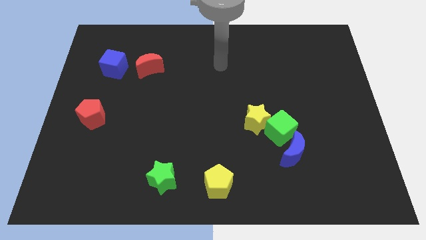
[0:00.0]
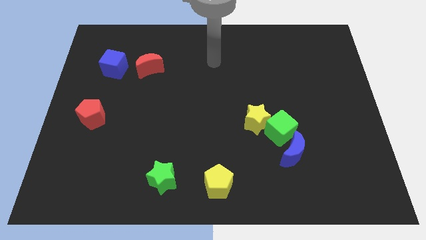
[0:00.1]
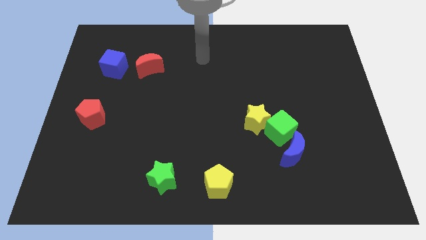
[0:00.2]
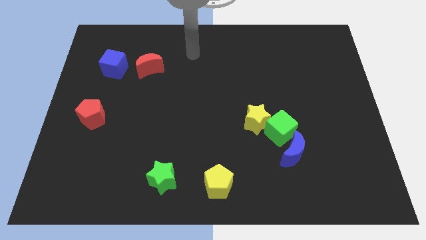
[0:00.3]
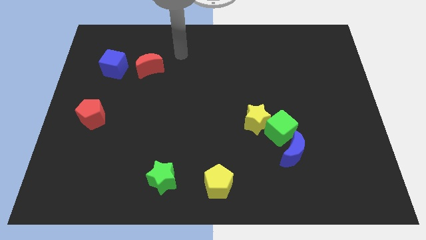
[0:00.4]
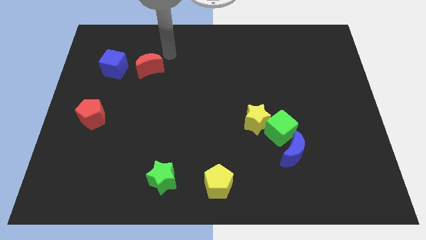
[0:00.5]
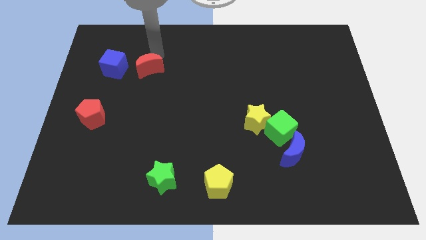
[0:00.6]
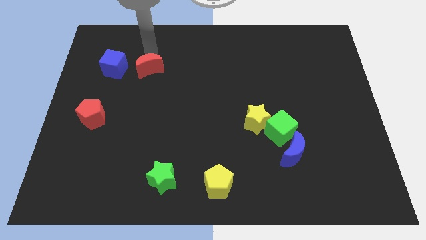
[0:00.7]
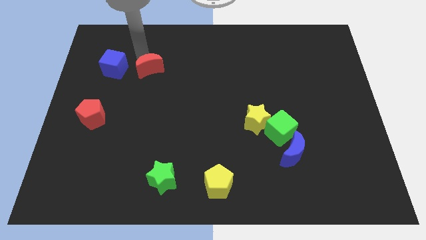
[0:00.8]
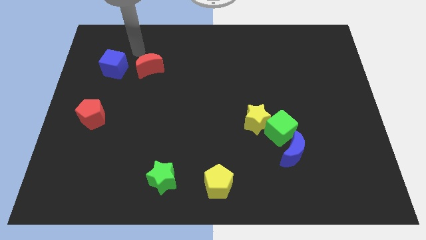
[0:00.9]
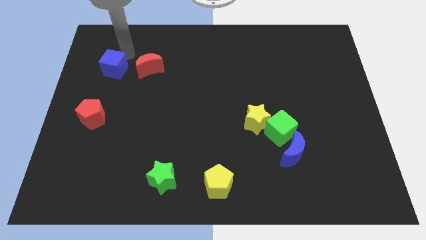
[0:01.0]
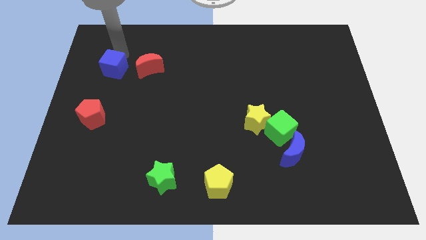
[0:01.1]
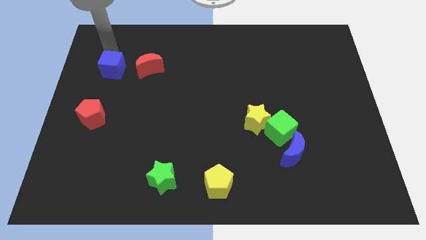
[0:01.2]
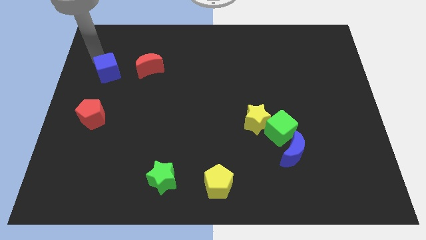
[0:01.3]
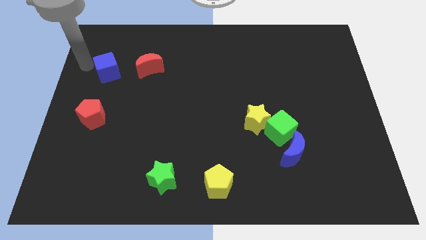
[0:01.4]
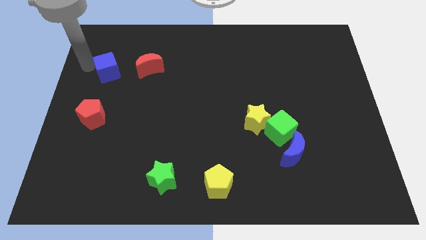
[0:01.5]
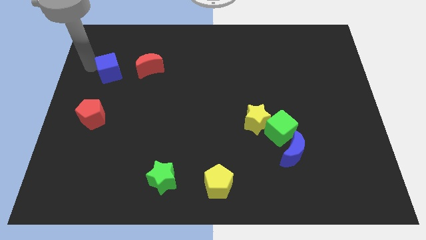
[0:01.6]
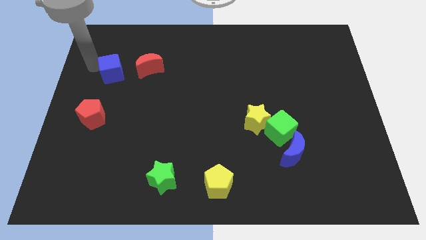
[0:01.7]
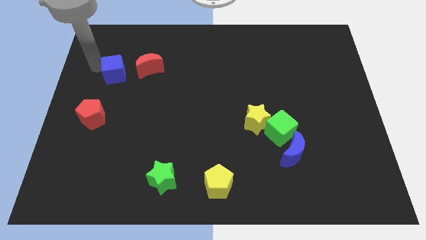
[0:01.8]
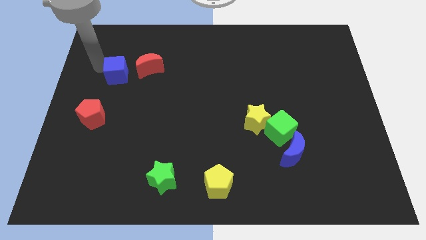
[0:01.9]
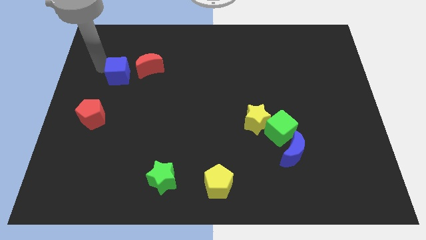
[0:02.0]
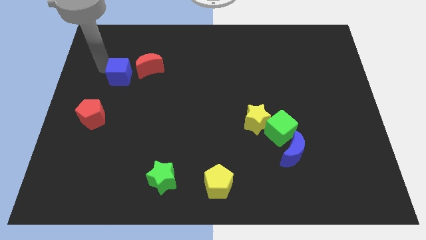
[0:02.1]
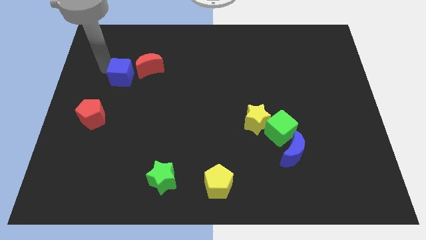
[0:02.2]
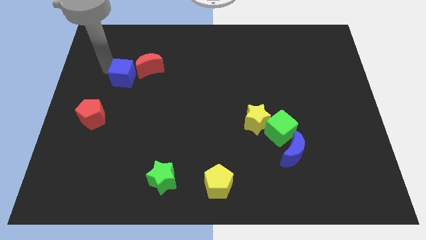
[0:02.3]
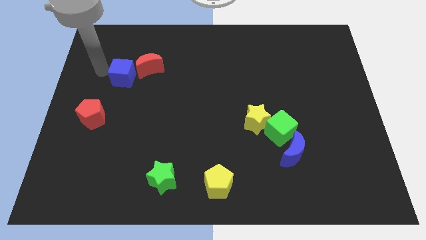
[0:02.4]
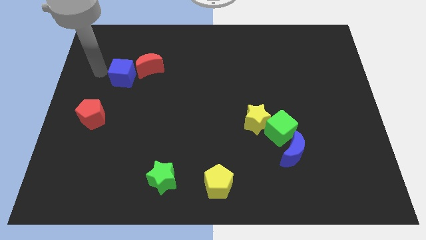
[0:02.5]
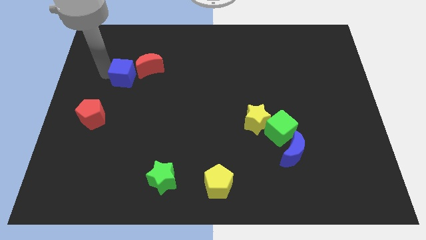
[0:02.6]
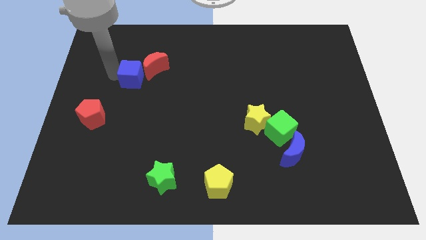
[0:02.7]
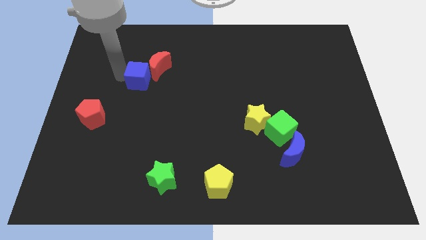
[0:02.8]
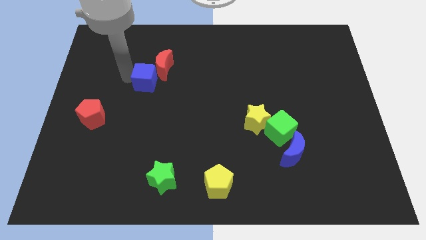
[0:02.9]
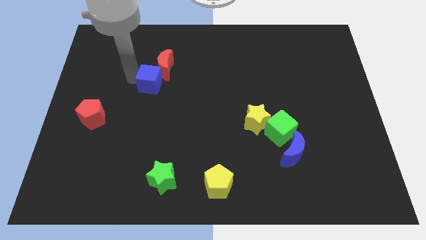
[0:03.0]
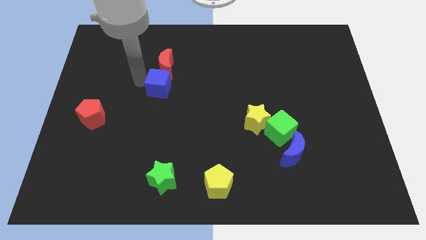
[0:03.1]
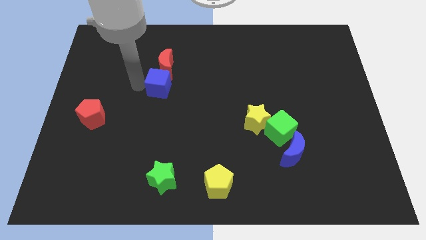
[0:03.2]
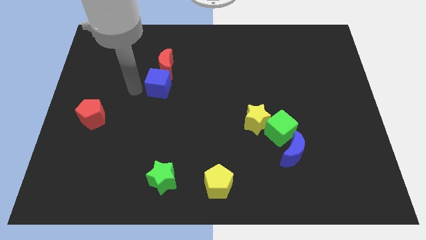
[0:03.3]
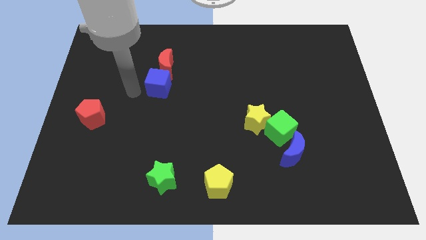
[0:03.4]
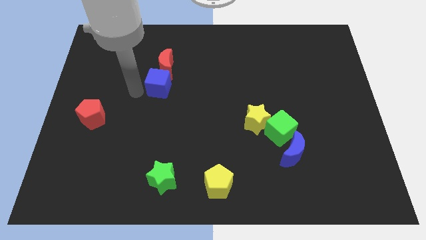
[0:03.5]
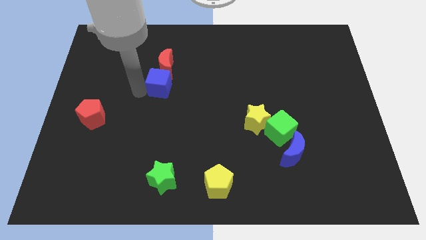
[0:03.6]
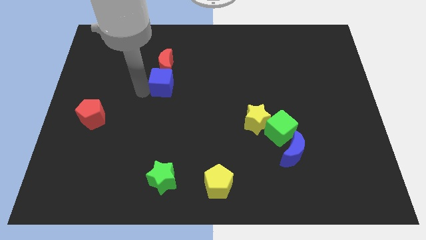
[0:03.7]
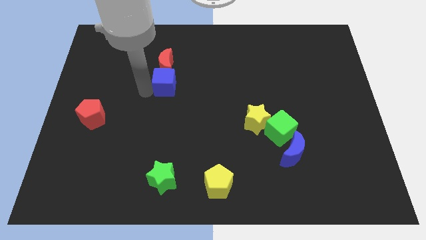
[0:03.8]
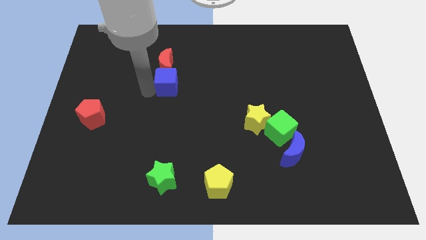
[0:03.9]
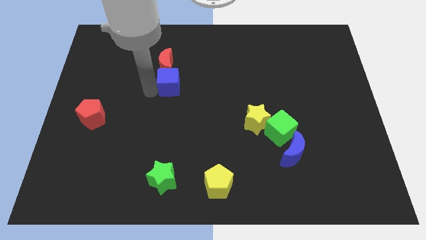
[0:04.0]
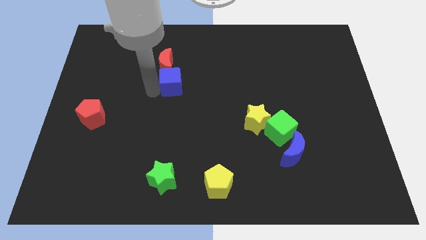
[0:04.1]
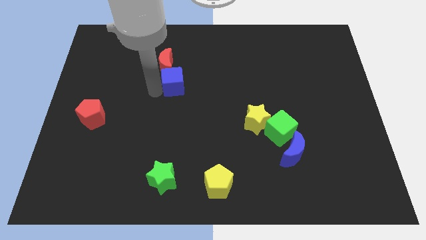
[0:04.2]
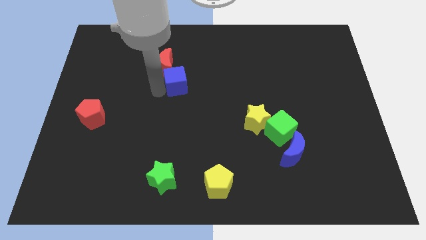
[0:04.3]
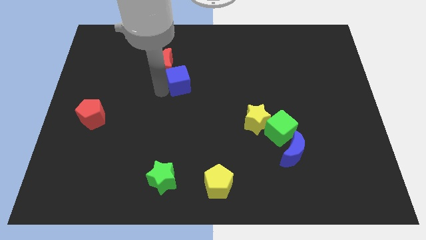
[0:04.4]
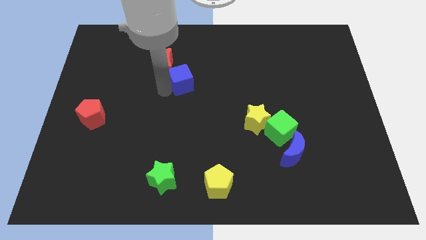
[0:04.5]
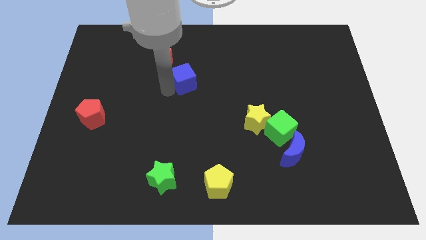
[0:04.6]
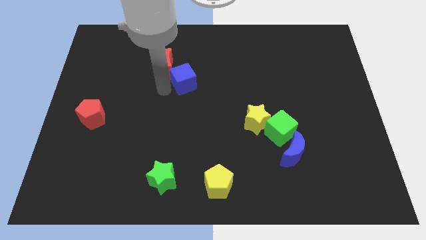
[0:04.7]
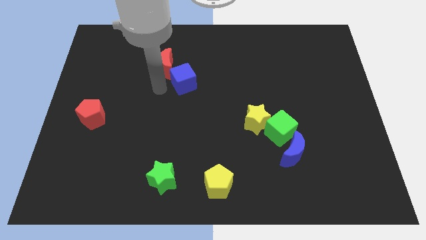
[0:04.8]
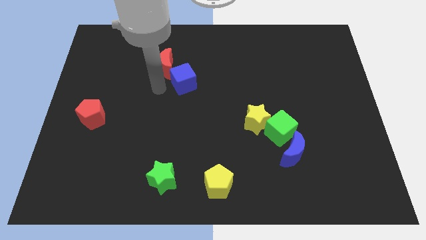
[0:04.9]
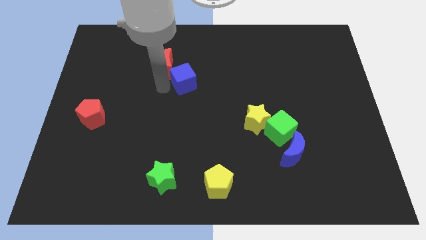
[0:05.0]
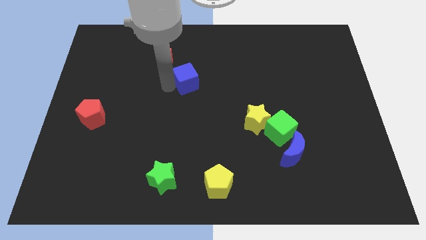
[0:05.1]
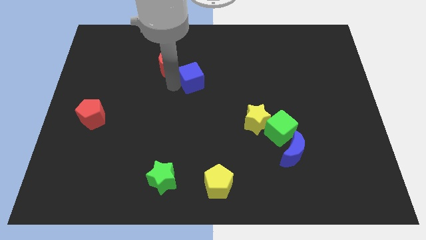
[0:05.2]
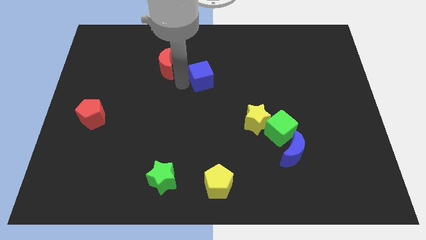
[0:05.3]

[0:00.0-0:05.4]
slide the blue cube to the right

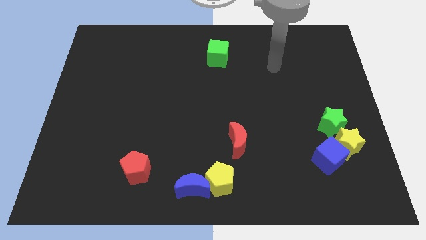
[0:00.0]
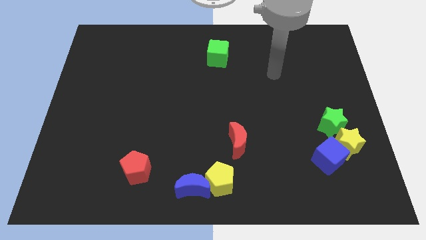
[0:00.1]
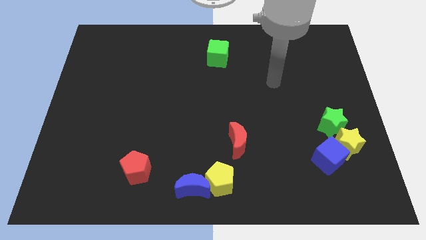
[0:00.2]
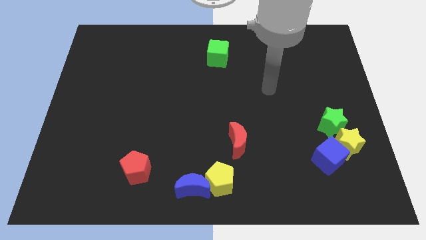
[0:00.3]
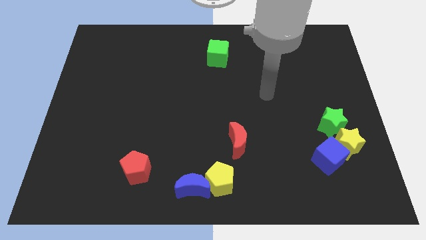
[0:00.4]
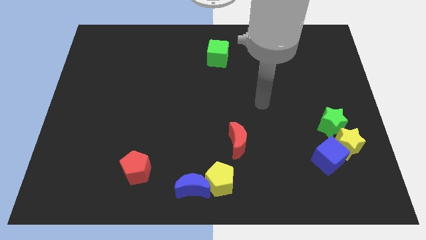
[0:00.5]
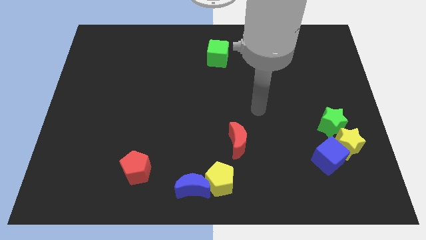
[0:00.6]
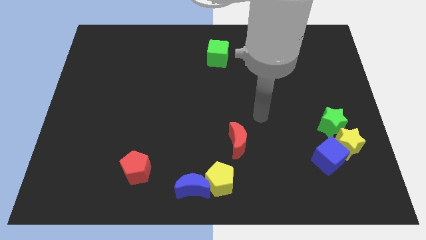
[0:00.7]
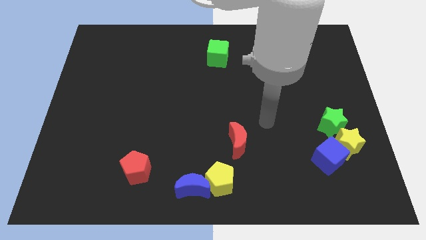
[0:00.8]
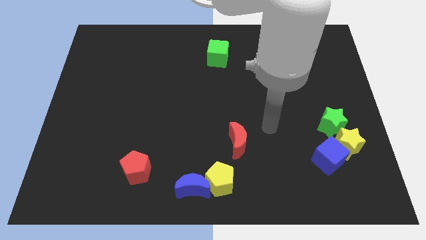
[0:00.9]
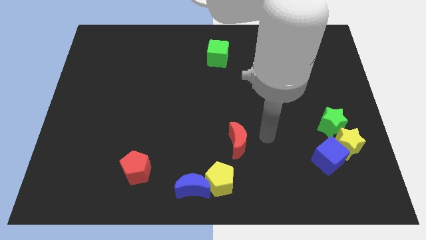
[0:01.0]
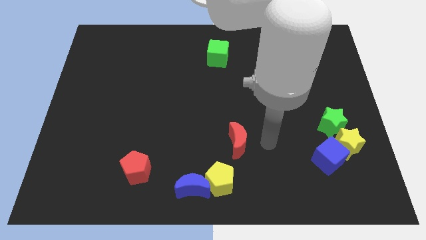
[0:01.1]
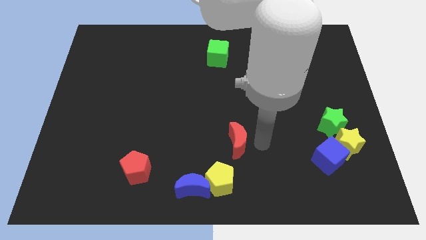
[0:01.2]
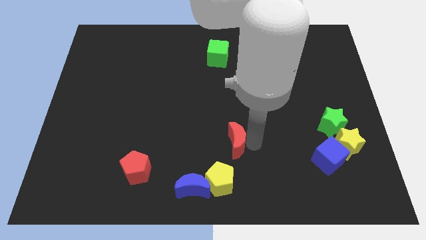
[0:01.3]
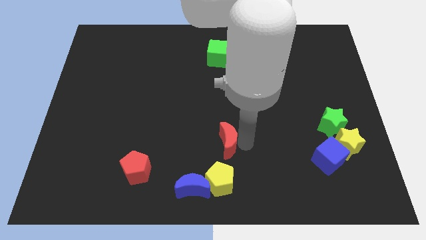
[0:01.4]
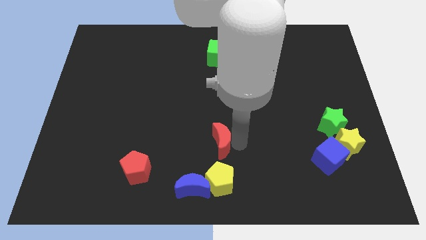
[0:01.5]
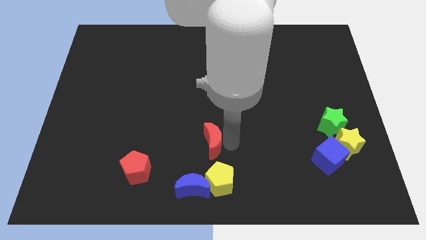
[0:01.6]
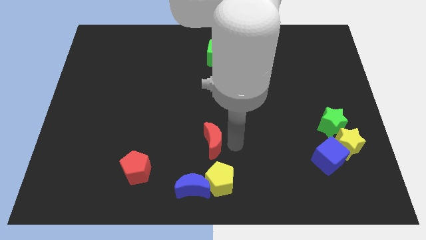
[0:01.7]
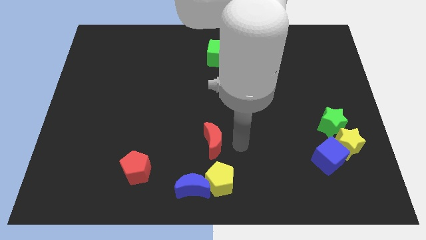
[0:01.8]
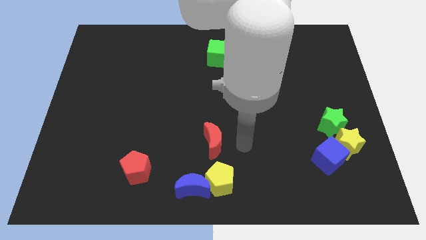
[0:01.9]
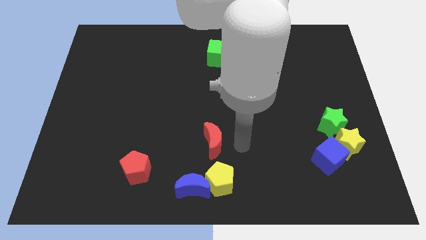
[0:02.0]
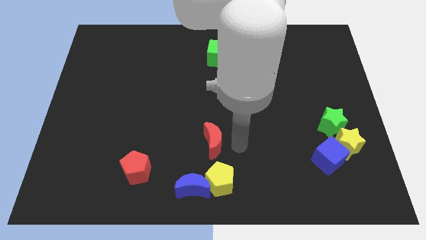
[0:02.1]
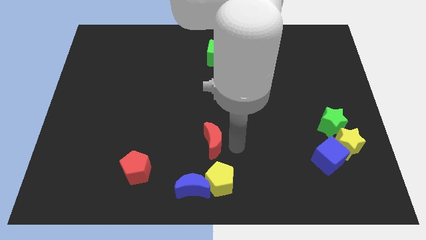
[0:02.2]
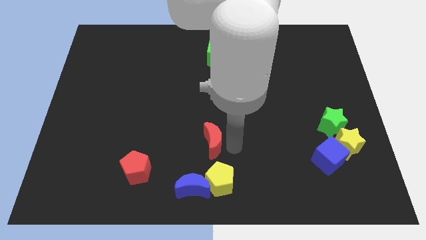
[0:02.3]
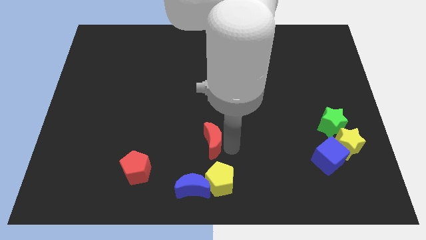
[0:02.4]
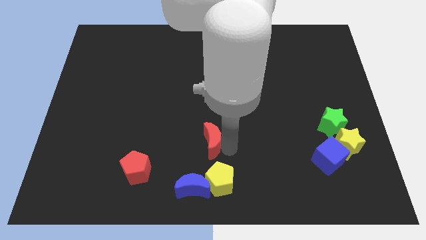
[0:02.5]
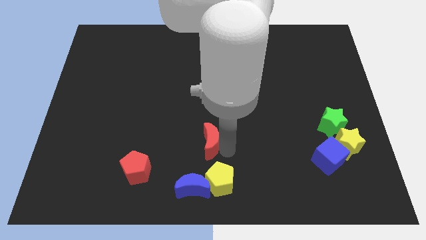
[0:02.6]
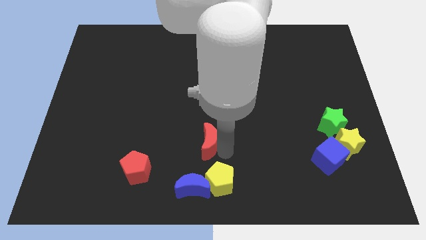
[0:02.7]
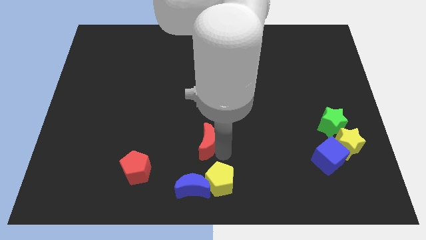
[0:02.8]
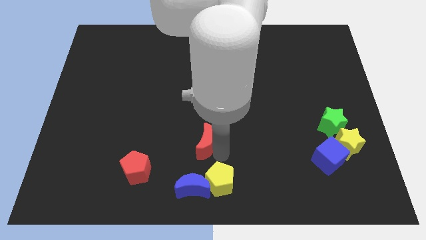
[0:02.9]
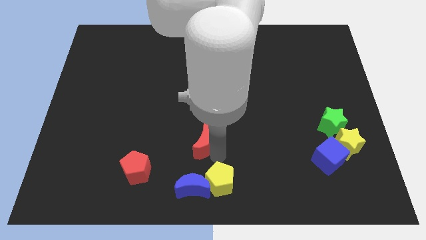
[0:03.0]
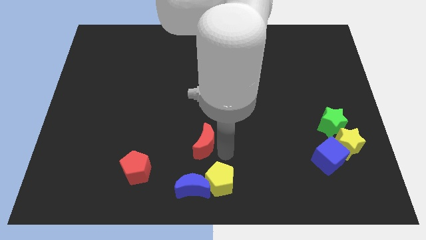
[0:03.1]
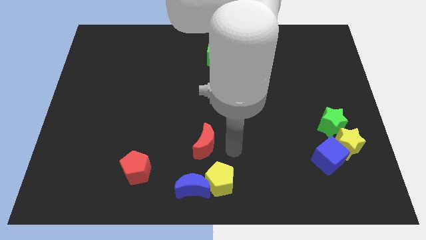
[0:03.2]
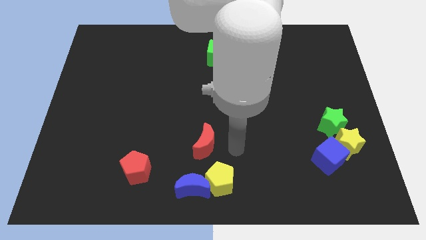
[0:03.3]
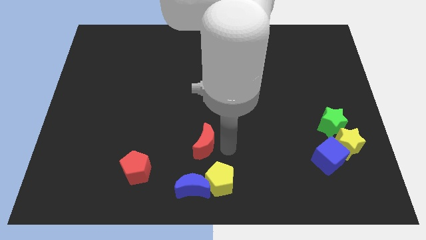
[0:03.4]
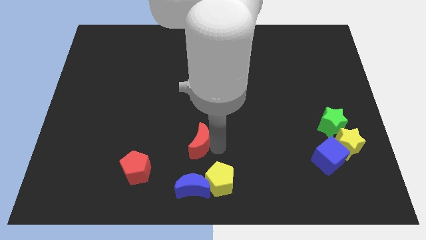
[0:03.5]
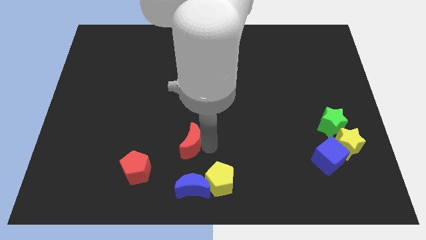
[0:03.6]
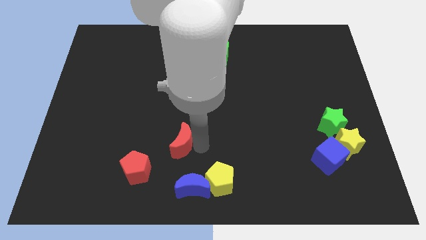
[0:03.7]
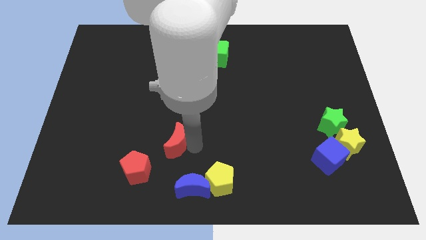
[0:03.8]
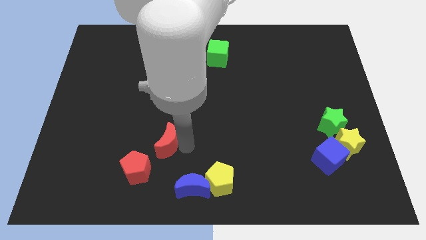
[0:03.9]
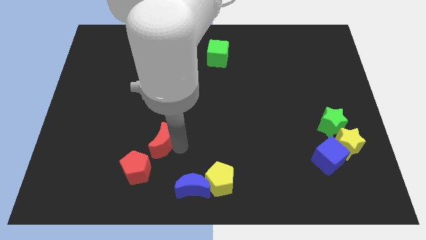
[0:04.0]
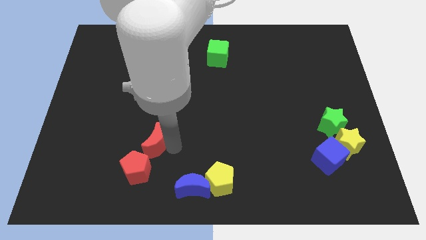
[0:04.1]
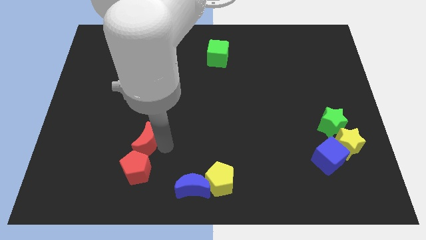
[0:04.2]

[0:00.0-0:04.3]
move the red moon left
